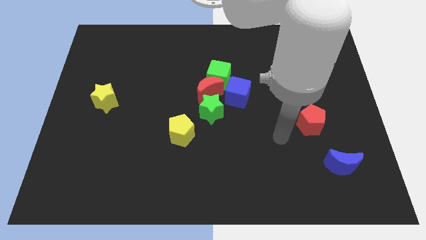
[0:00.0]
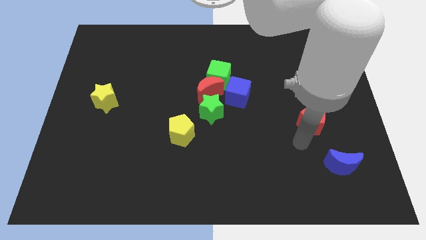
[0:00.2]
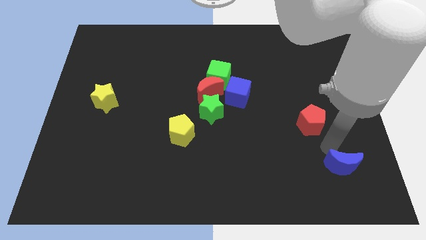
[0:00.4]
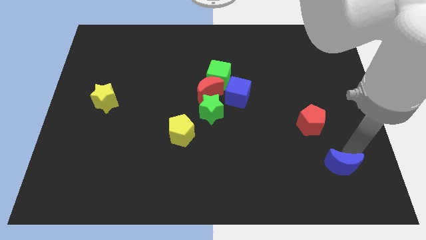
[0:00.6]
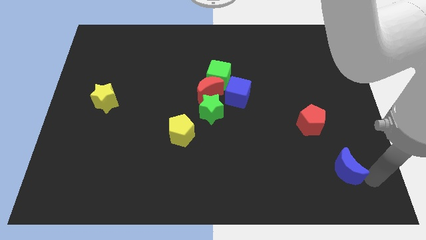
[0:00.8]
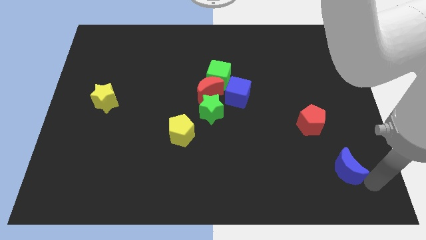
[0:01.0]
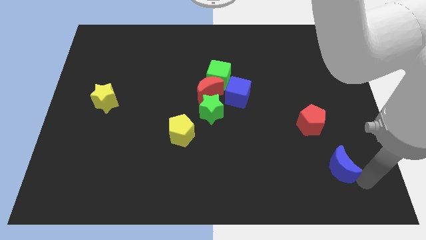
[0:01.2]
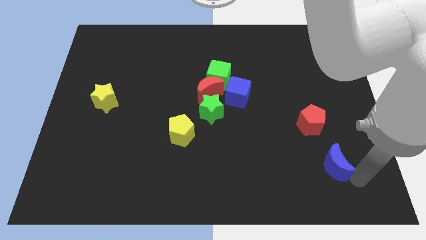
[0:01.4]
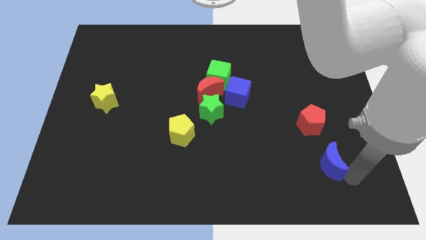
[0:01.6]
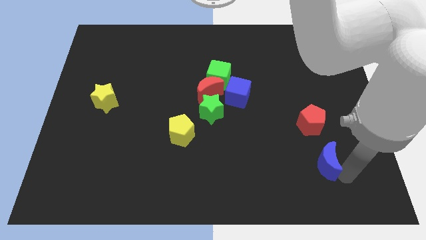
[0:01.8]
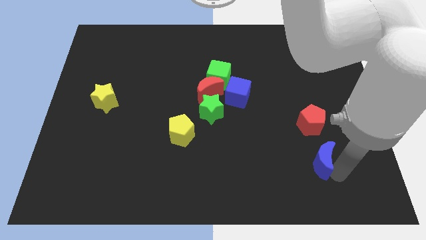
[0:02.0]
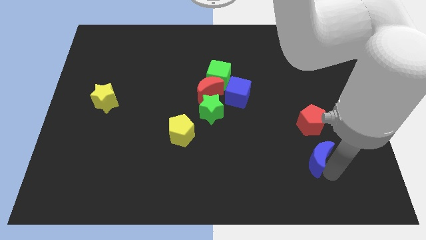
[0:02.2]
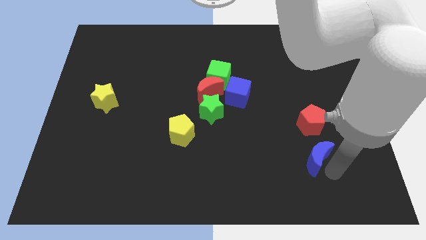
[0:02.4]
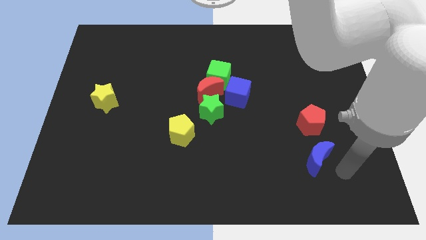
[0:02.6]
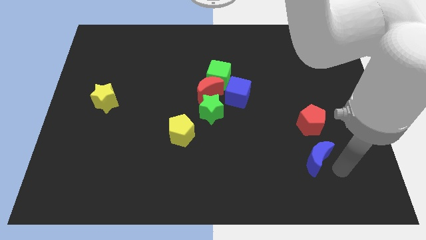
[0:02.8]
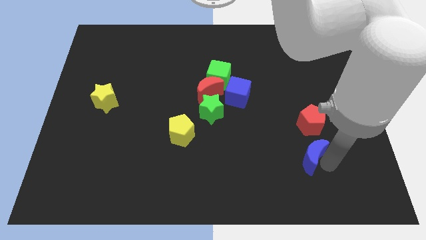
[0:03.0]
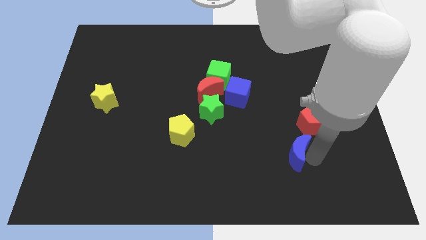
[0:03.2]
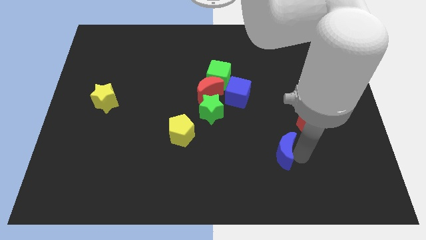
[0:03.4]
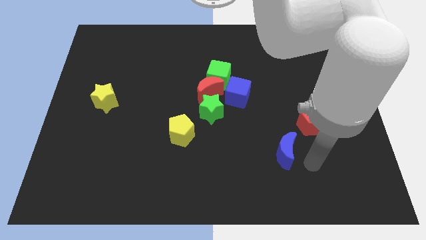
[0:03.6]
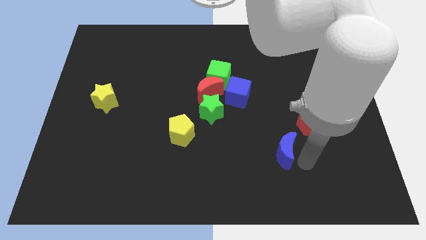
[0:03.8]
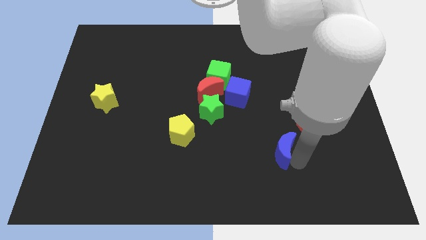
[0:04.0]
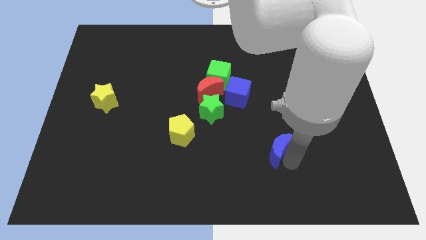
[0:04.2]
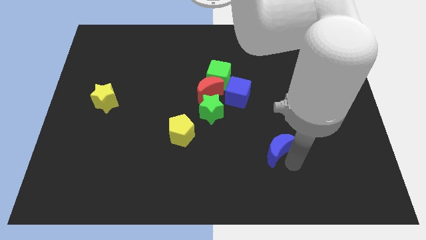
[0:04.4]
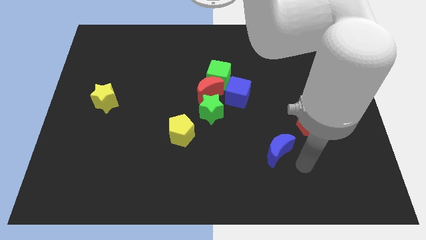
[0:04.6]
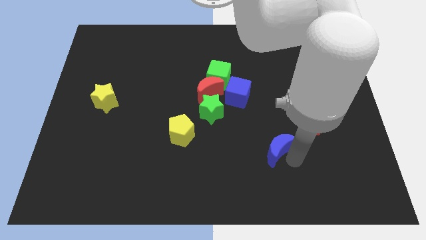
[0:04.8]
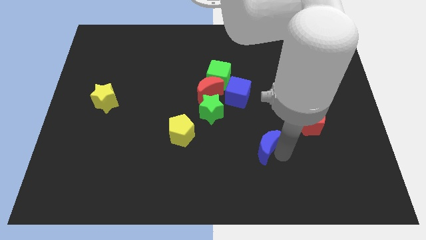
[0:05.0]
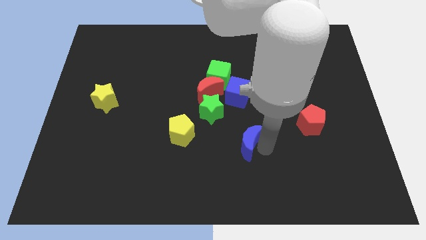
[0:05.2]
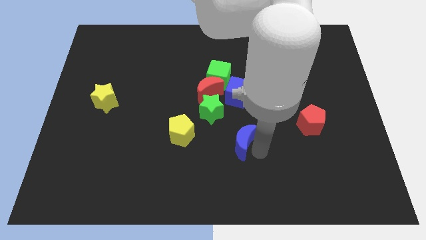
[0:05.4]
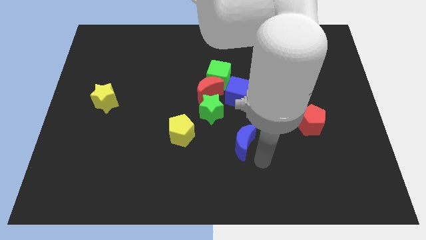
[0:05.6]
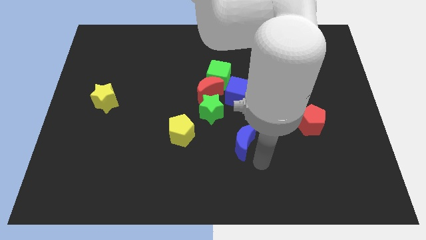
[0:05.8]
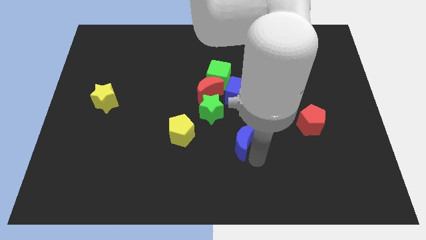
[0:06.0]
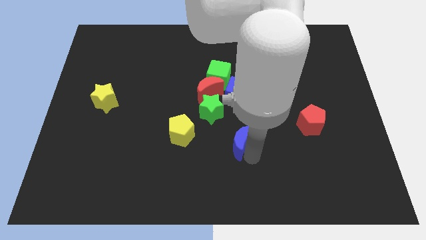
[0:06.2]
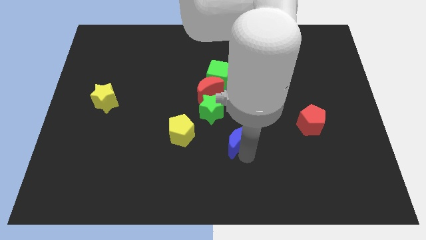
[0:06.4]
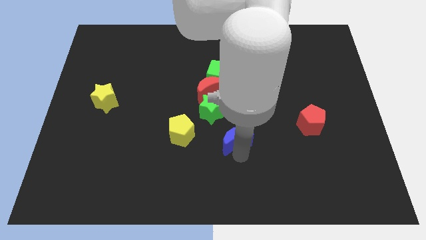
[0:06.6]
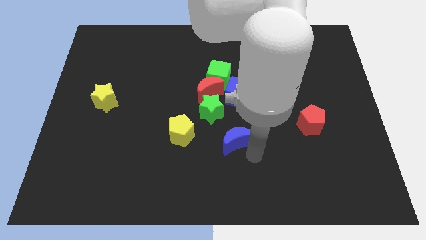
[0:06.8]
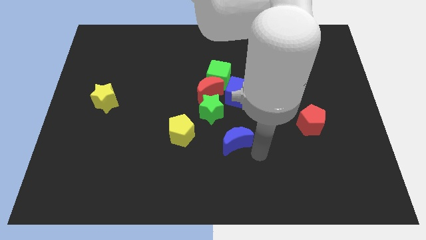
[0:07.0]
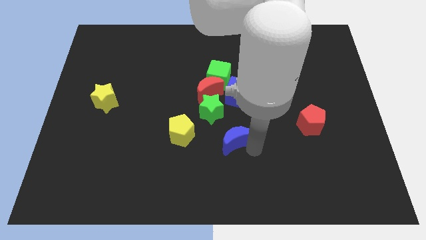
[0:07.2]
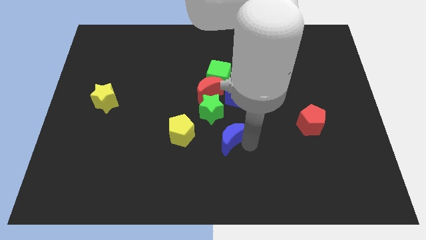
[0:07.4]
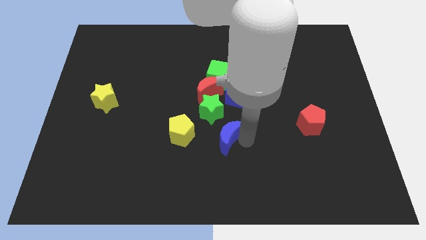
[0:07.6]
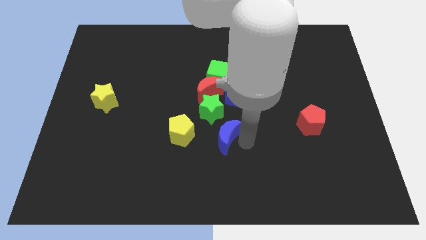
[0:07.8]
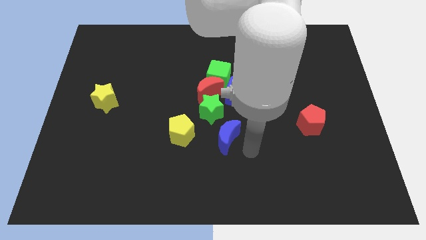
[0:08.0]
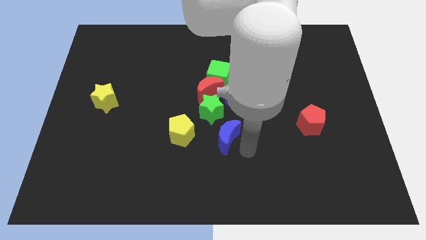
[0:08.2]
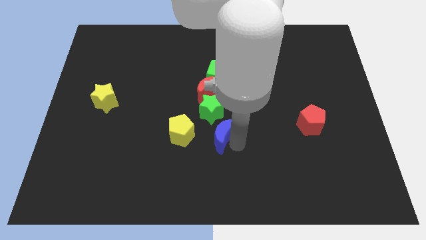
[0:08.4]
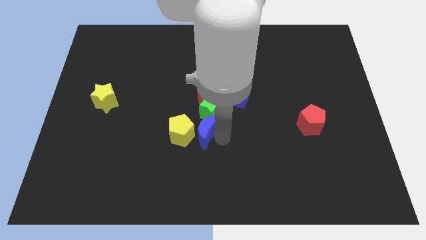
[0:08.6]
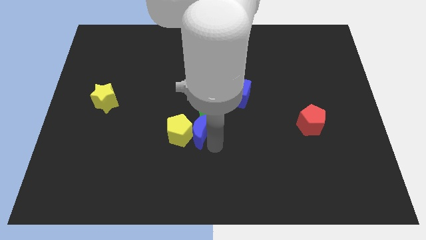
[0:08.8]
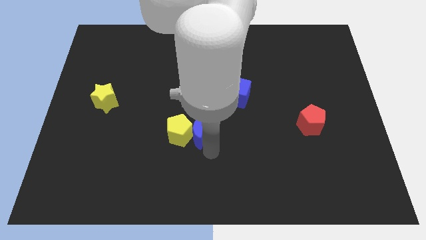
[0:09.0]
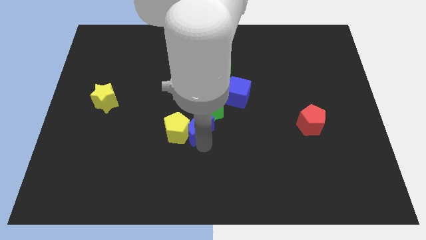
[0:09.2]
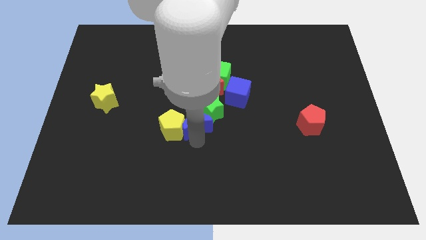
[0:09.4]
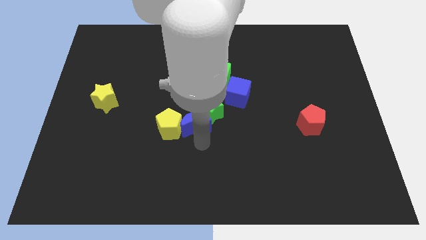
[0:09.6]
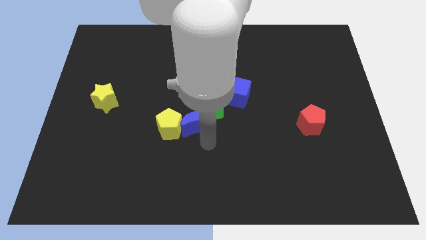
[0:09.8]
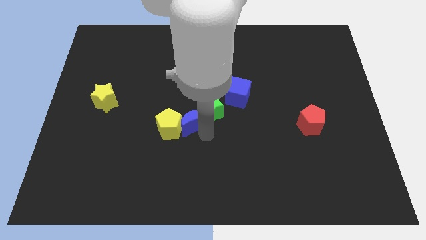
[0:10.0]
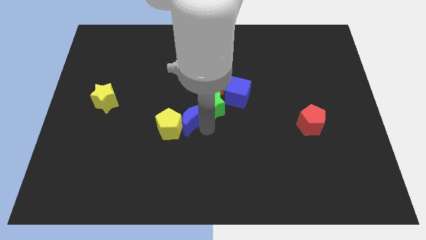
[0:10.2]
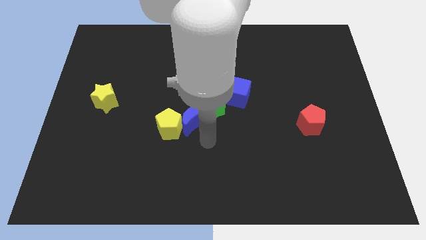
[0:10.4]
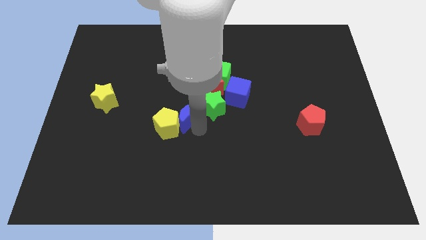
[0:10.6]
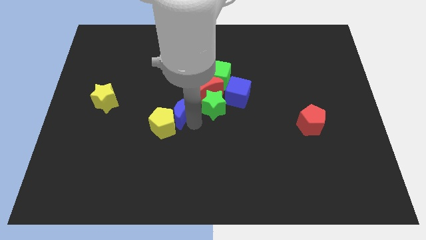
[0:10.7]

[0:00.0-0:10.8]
move the blue moon to the top of the yellow pentagon

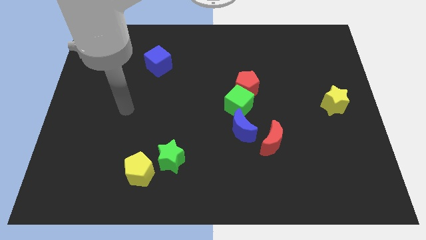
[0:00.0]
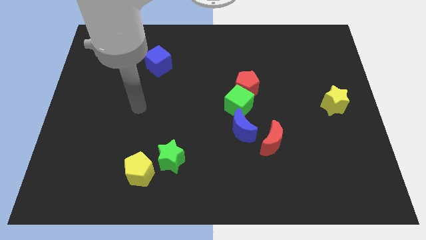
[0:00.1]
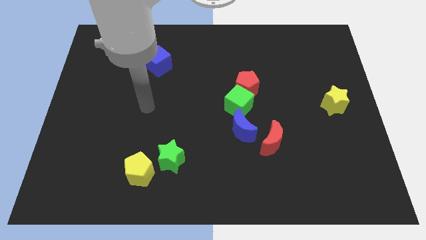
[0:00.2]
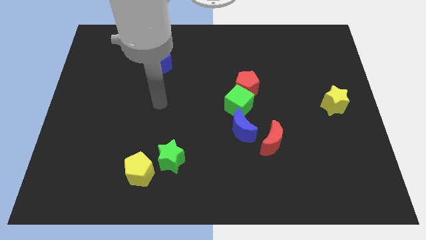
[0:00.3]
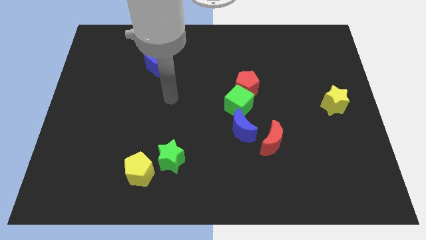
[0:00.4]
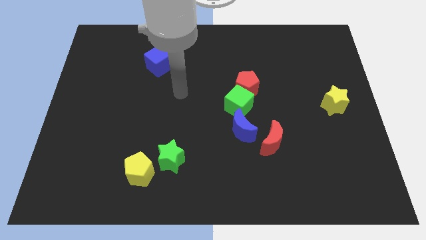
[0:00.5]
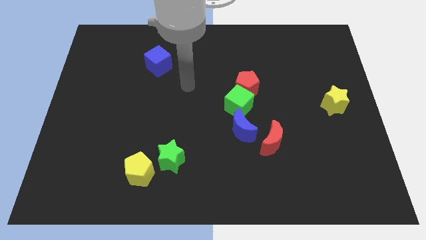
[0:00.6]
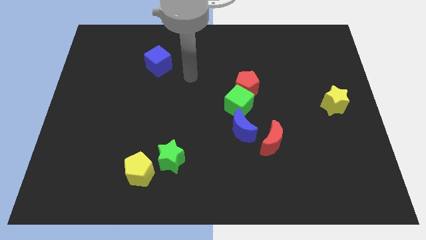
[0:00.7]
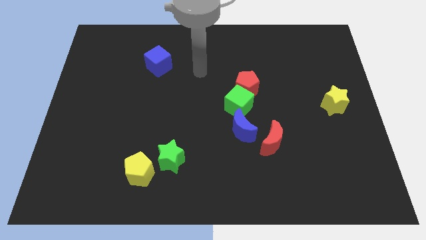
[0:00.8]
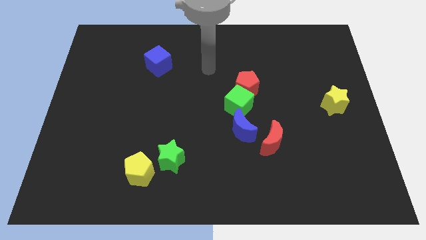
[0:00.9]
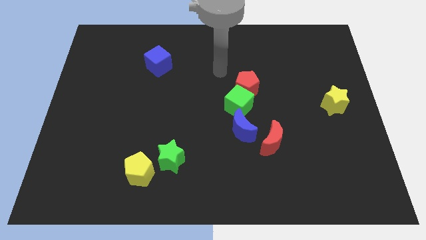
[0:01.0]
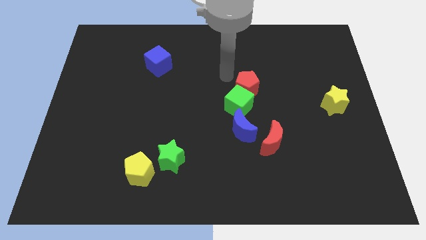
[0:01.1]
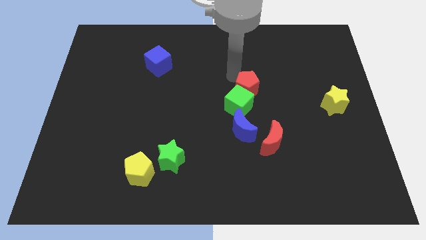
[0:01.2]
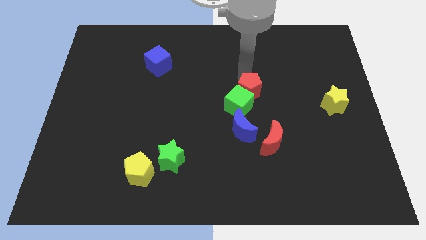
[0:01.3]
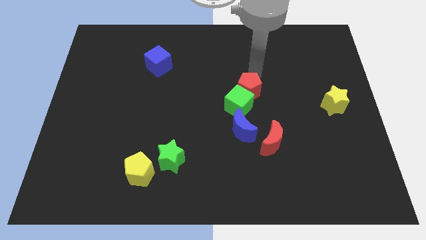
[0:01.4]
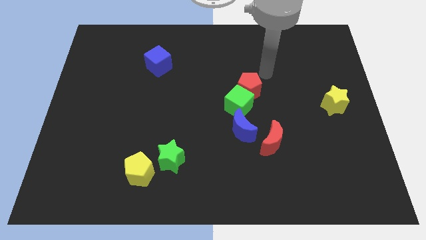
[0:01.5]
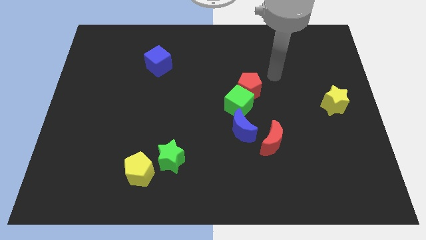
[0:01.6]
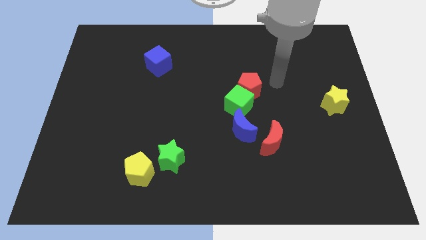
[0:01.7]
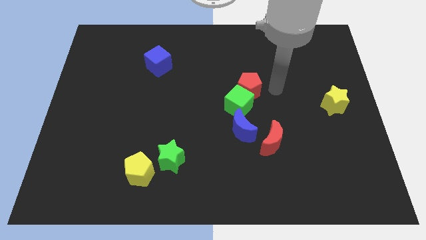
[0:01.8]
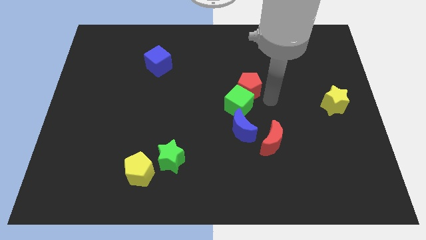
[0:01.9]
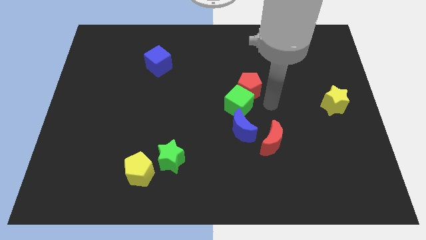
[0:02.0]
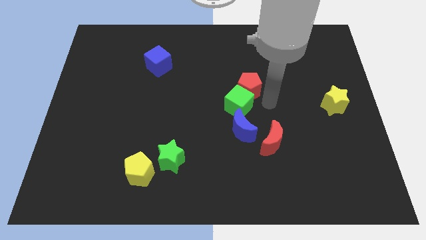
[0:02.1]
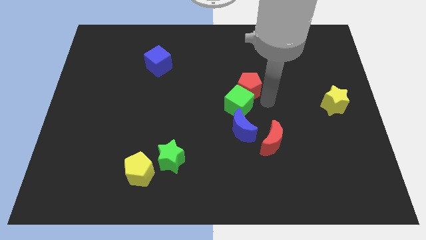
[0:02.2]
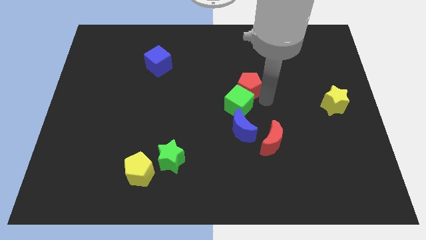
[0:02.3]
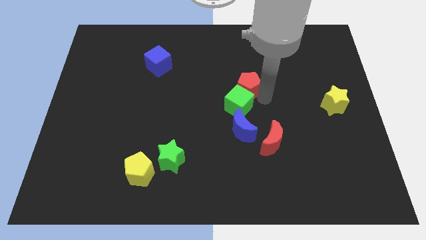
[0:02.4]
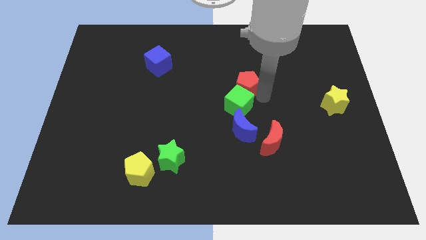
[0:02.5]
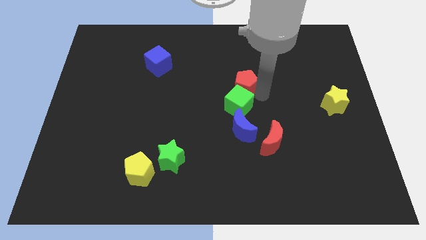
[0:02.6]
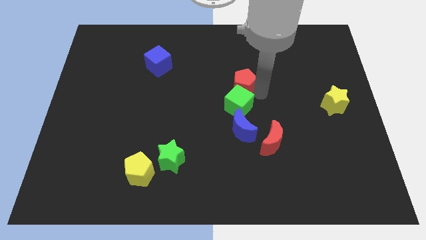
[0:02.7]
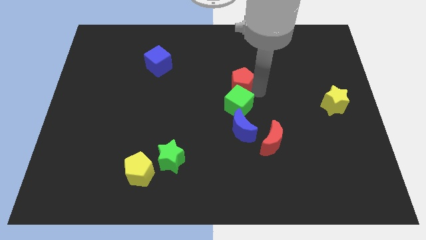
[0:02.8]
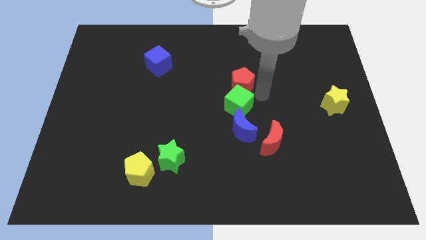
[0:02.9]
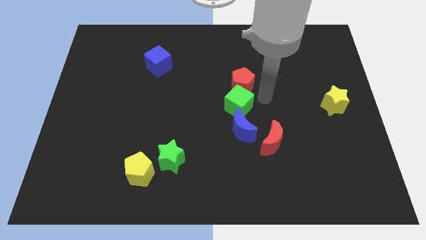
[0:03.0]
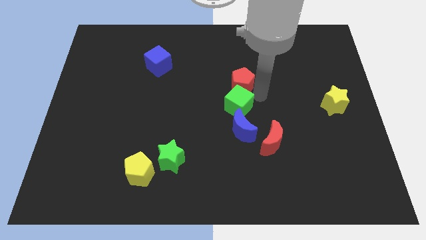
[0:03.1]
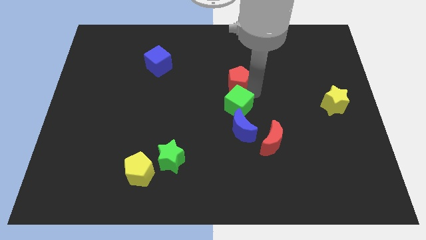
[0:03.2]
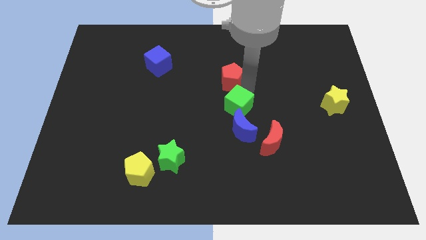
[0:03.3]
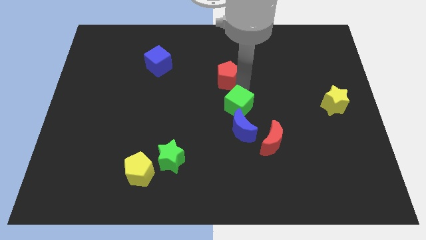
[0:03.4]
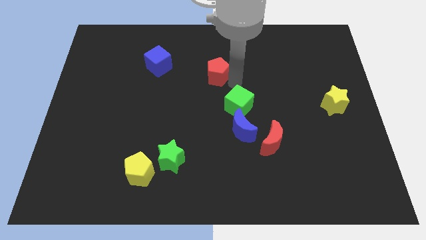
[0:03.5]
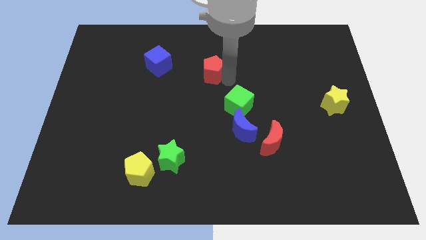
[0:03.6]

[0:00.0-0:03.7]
push the red pentagon right of the blue cube
